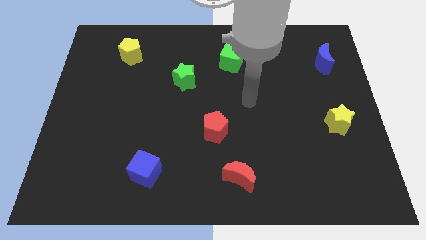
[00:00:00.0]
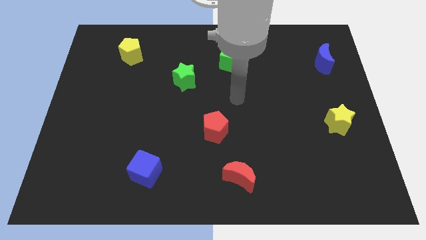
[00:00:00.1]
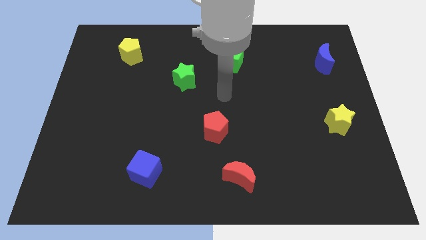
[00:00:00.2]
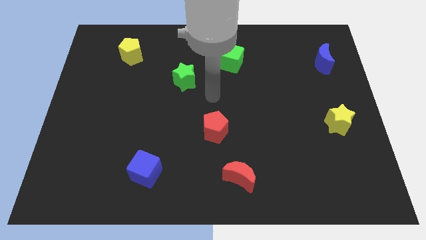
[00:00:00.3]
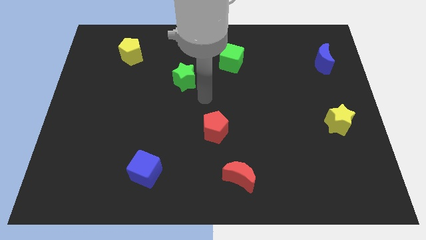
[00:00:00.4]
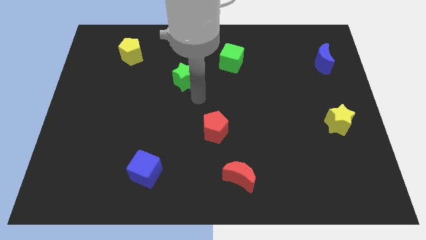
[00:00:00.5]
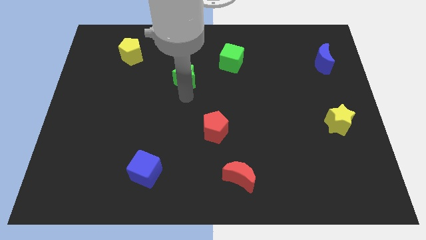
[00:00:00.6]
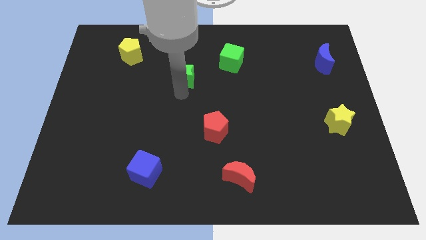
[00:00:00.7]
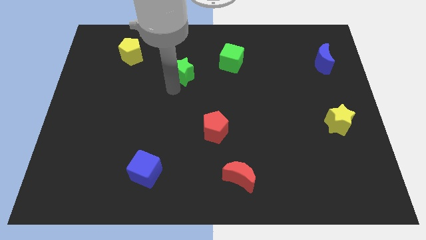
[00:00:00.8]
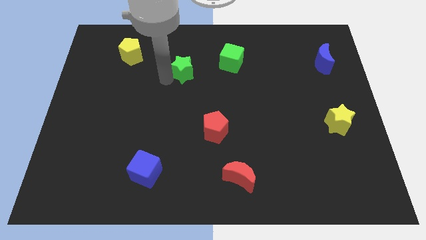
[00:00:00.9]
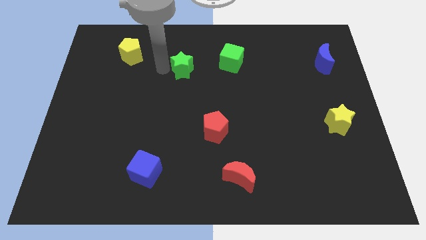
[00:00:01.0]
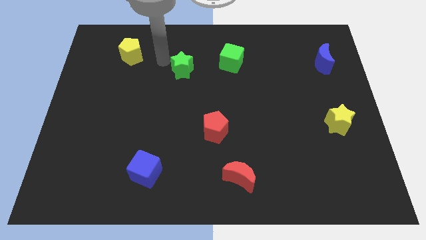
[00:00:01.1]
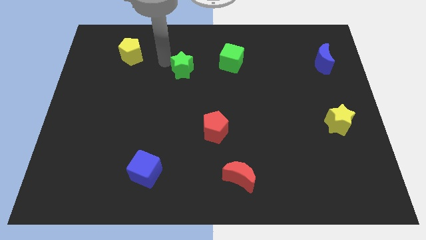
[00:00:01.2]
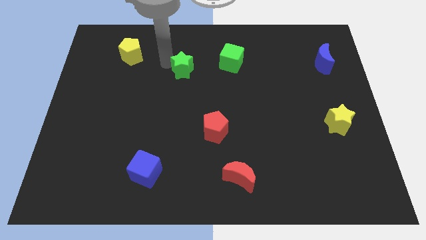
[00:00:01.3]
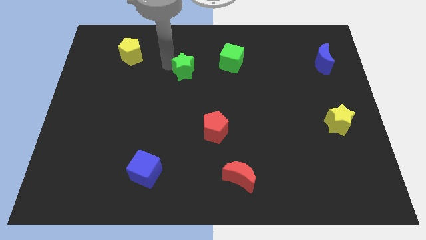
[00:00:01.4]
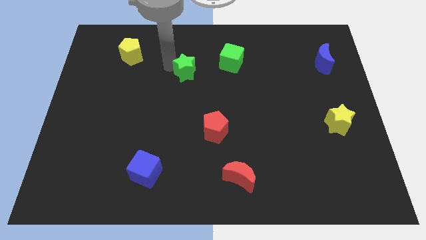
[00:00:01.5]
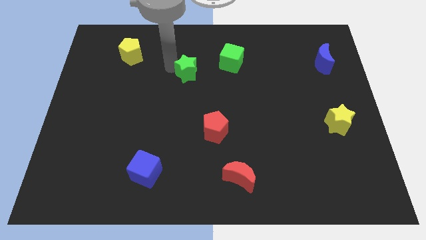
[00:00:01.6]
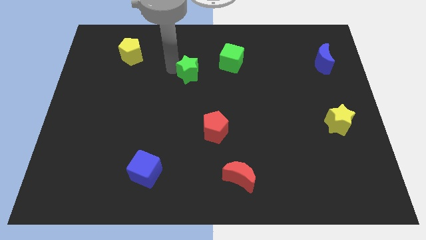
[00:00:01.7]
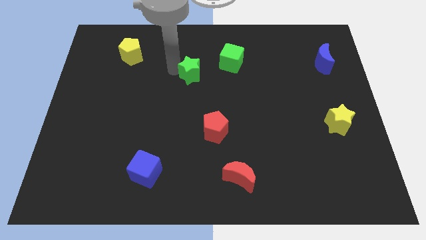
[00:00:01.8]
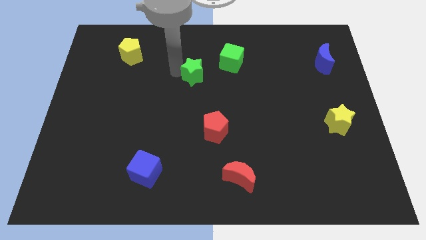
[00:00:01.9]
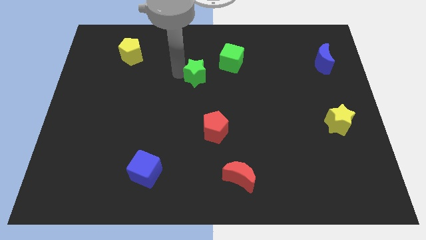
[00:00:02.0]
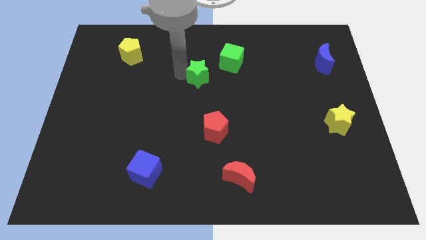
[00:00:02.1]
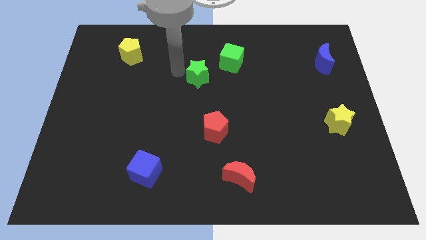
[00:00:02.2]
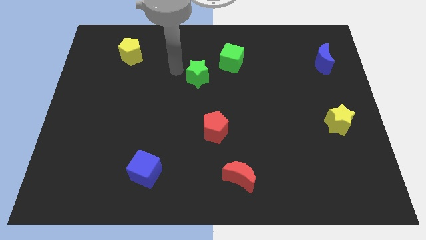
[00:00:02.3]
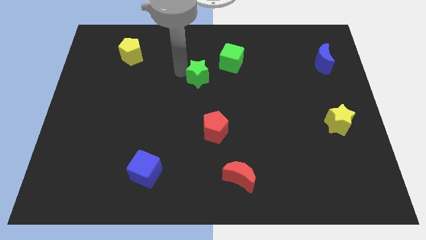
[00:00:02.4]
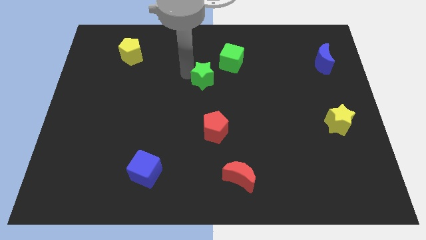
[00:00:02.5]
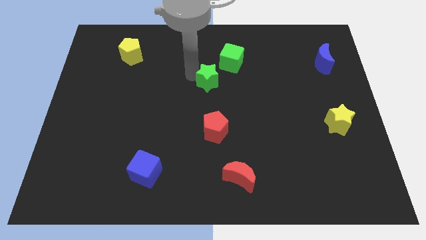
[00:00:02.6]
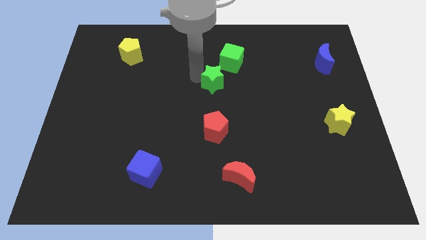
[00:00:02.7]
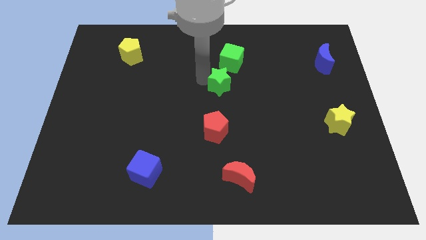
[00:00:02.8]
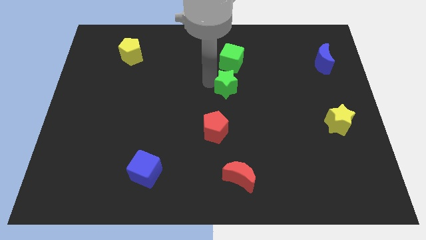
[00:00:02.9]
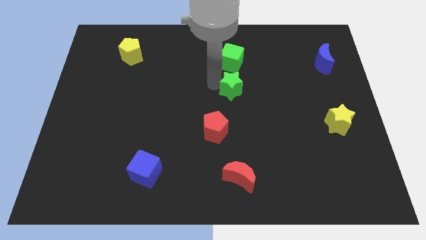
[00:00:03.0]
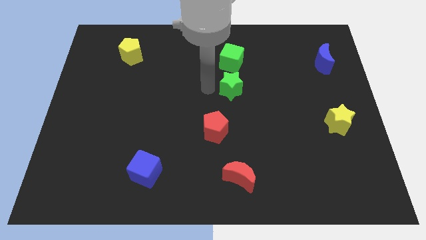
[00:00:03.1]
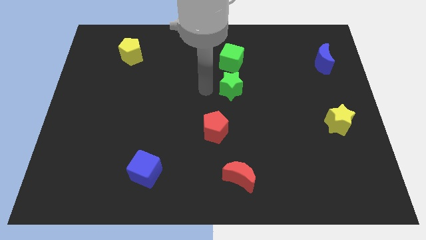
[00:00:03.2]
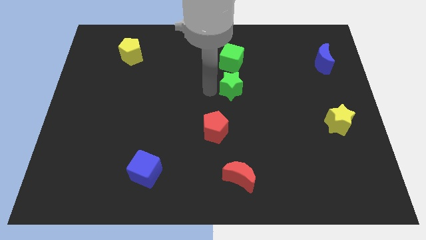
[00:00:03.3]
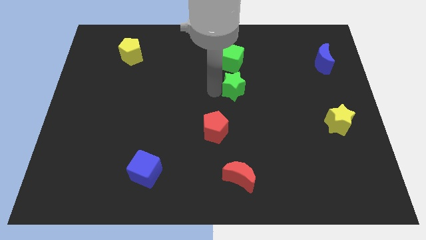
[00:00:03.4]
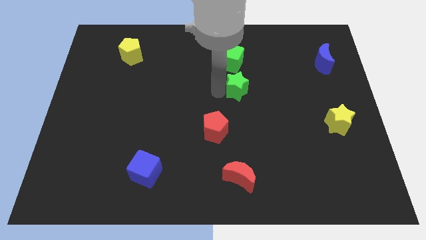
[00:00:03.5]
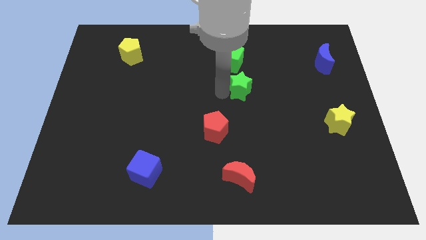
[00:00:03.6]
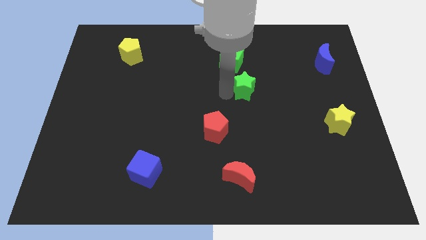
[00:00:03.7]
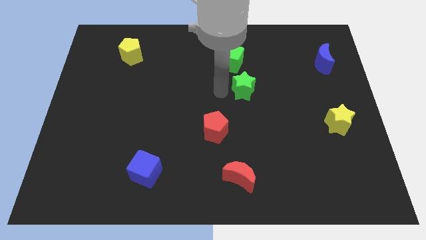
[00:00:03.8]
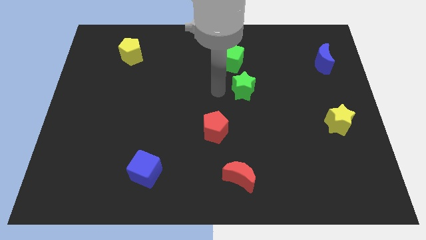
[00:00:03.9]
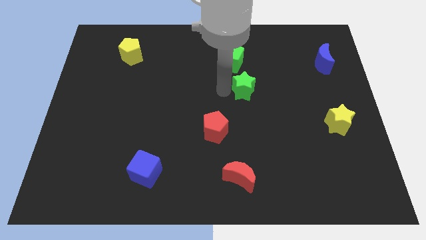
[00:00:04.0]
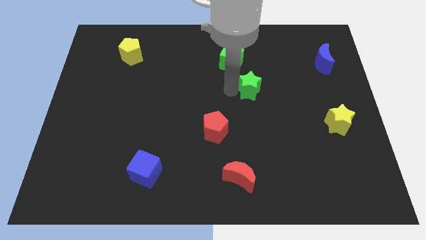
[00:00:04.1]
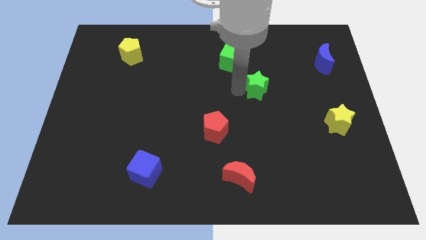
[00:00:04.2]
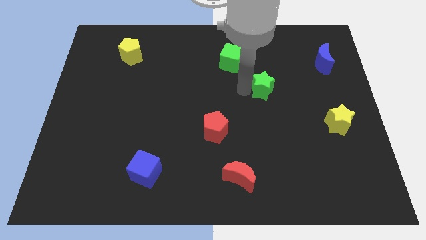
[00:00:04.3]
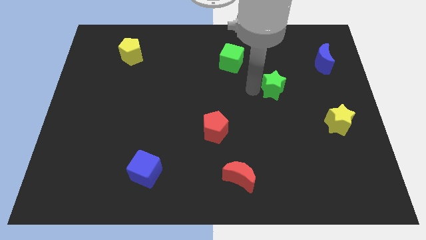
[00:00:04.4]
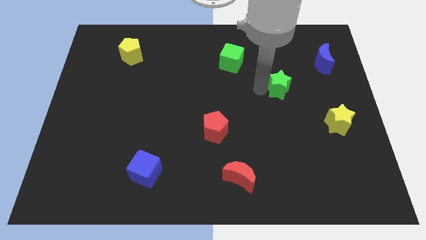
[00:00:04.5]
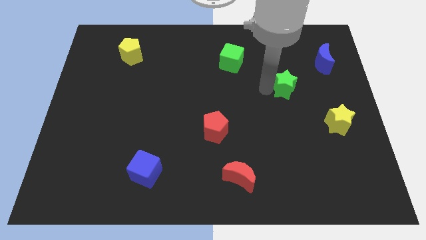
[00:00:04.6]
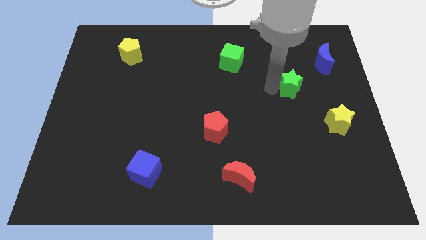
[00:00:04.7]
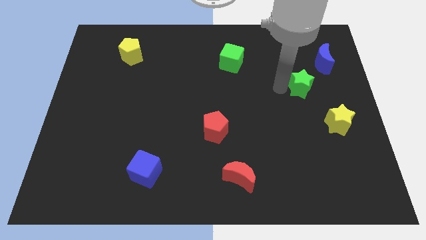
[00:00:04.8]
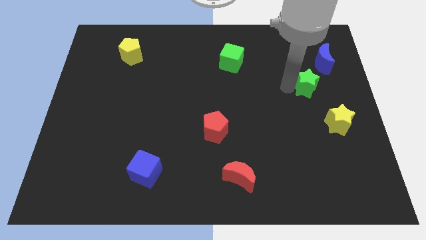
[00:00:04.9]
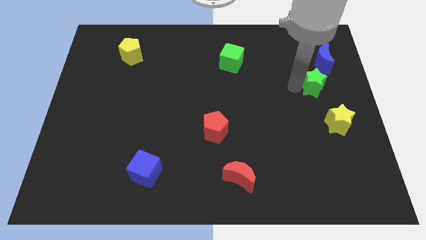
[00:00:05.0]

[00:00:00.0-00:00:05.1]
move the green star above the yellow star

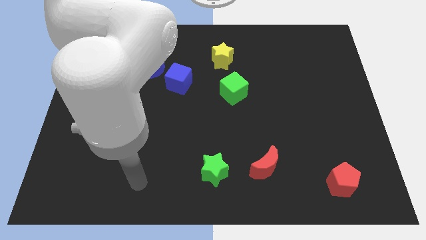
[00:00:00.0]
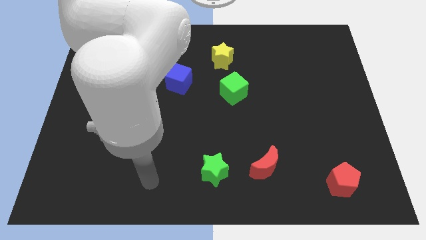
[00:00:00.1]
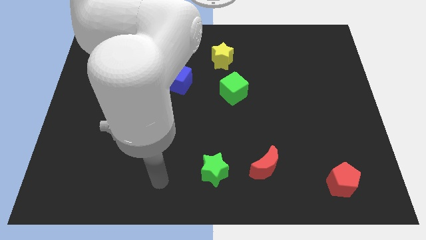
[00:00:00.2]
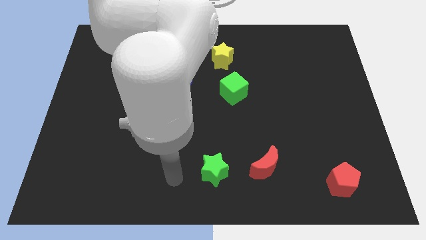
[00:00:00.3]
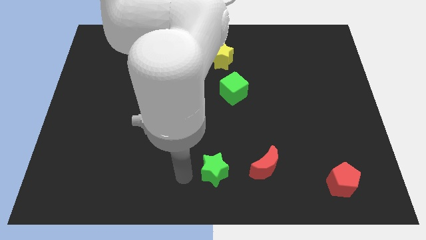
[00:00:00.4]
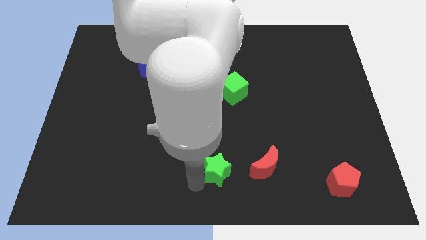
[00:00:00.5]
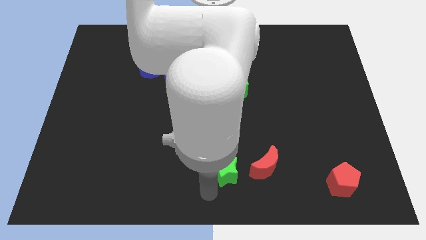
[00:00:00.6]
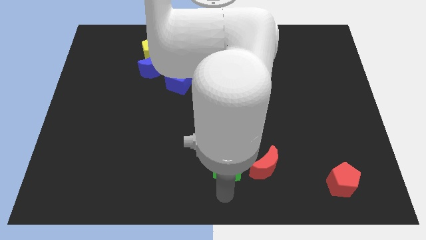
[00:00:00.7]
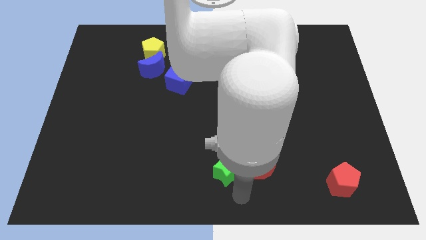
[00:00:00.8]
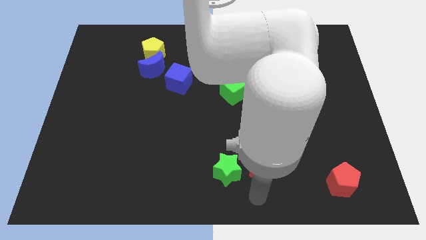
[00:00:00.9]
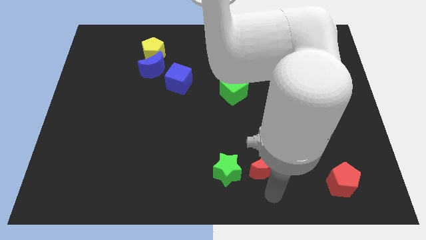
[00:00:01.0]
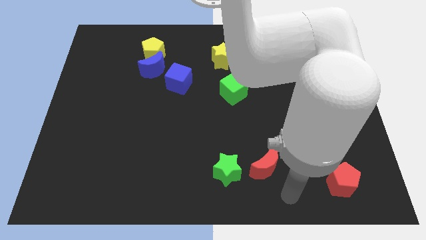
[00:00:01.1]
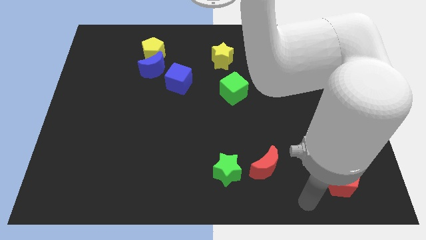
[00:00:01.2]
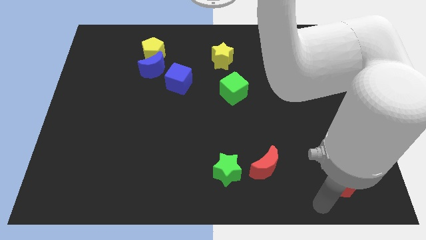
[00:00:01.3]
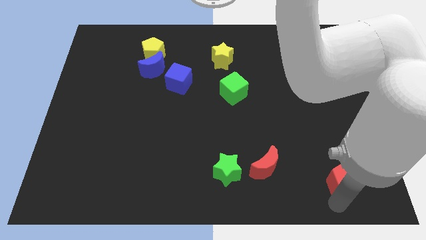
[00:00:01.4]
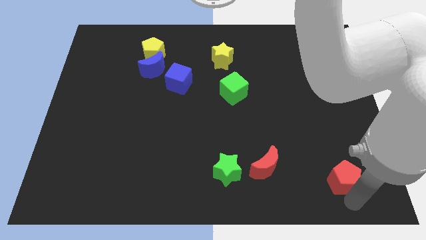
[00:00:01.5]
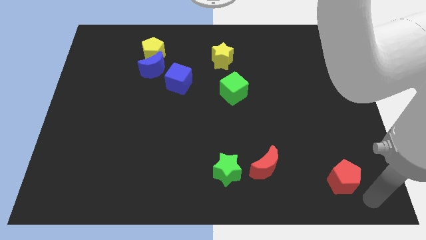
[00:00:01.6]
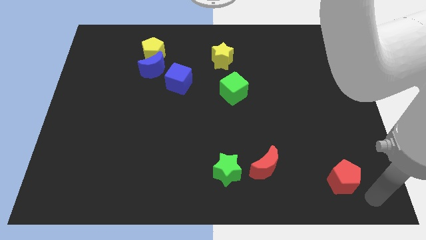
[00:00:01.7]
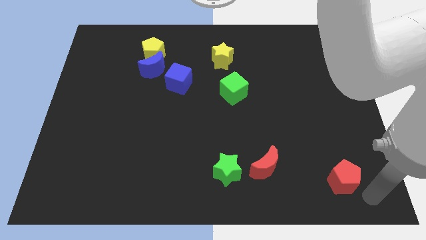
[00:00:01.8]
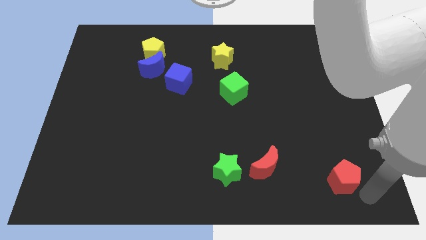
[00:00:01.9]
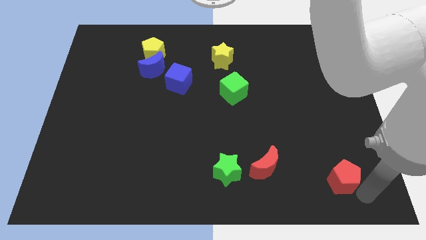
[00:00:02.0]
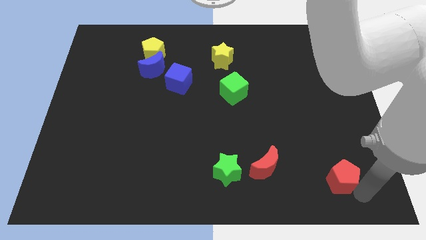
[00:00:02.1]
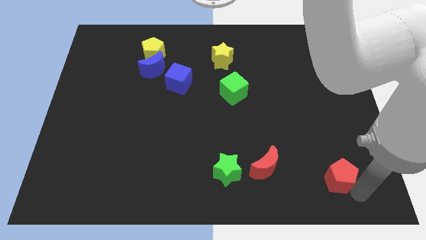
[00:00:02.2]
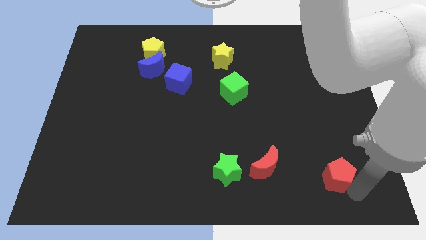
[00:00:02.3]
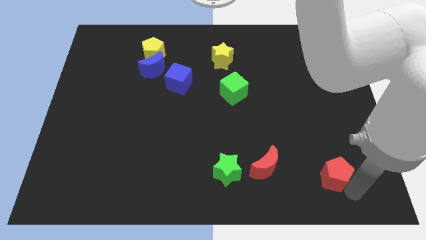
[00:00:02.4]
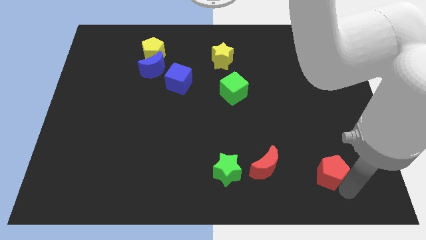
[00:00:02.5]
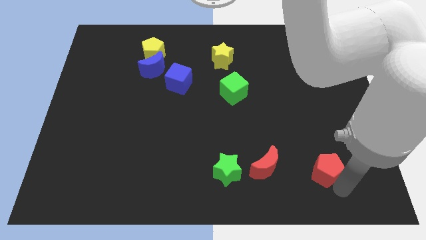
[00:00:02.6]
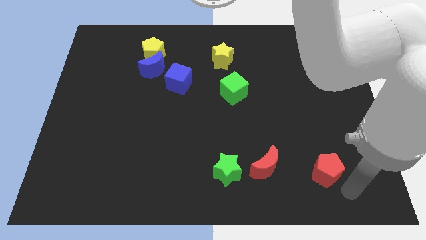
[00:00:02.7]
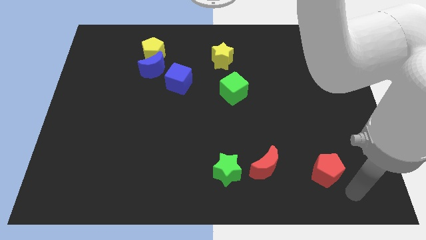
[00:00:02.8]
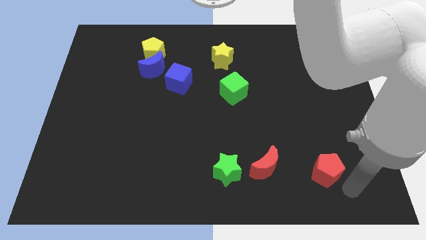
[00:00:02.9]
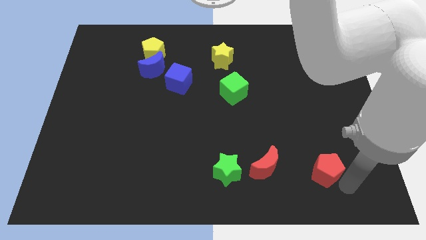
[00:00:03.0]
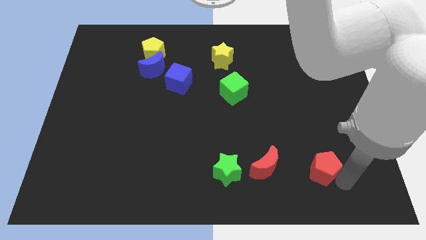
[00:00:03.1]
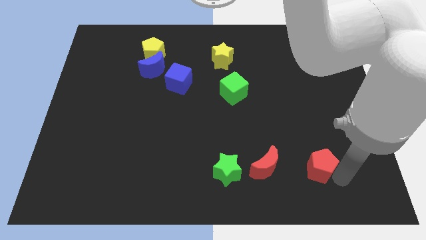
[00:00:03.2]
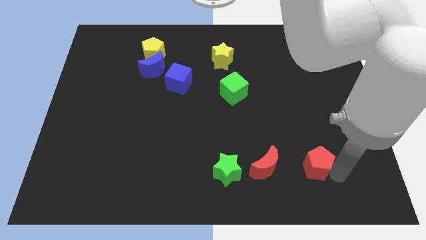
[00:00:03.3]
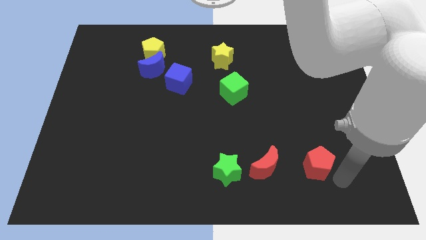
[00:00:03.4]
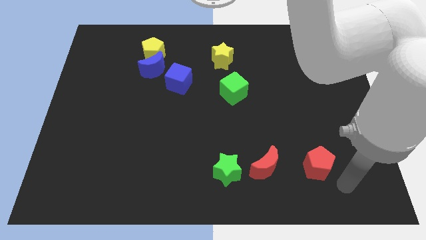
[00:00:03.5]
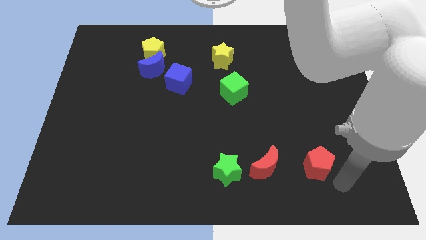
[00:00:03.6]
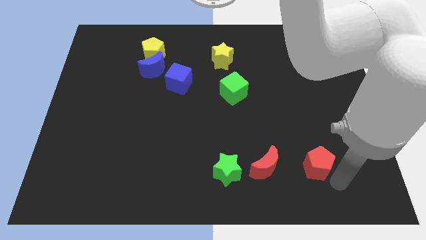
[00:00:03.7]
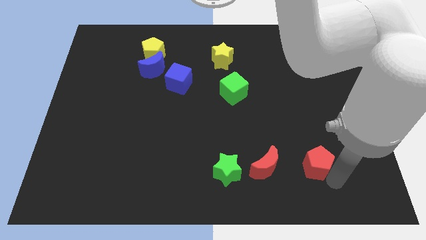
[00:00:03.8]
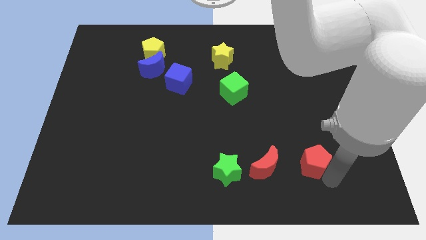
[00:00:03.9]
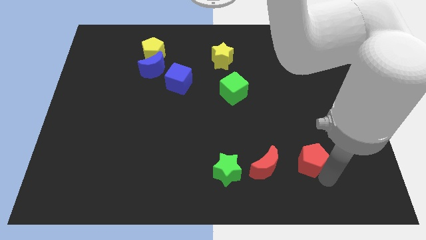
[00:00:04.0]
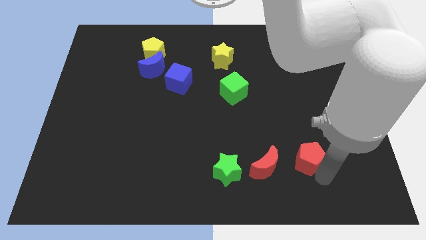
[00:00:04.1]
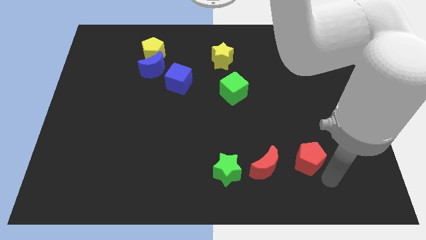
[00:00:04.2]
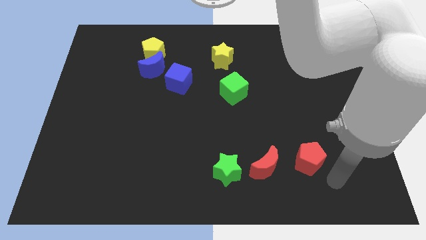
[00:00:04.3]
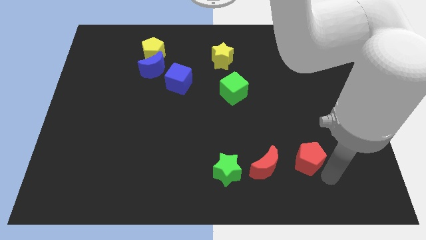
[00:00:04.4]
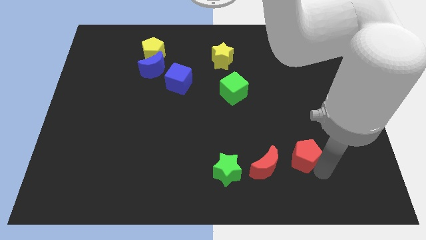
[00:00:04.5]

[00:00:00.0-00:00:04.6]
move the red pentagon to the top right side of the red moon
